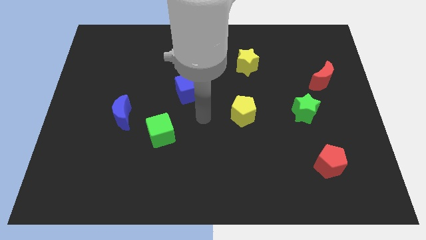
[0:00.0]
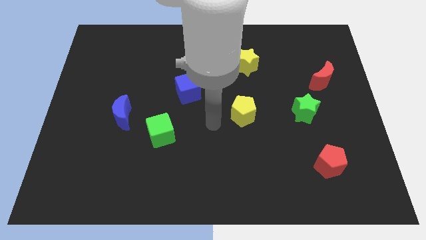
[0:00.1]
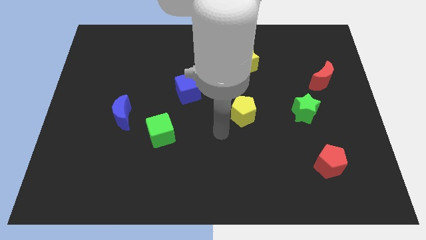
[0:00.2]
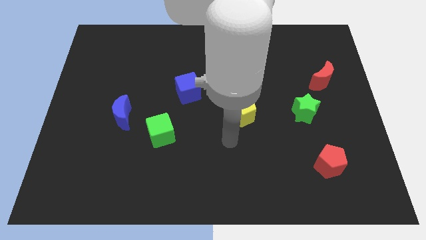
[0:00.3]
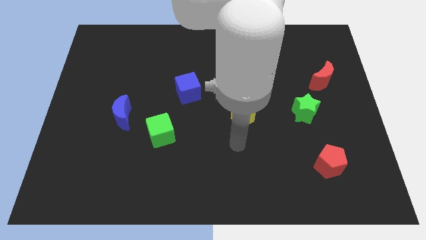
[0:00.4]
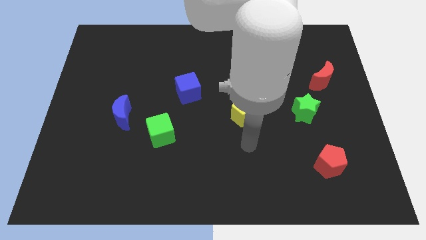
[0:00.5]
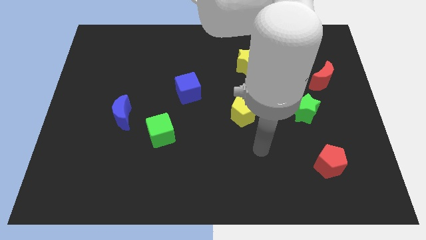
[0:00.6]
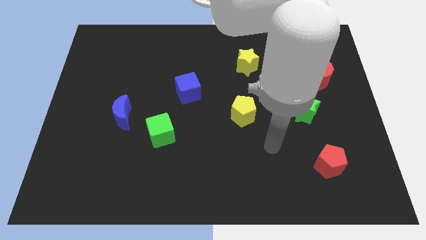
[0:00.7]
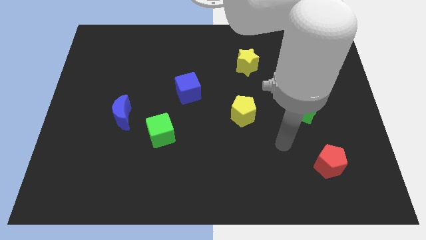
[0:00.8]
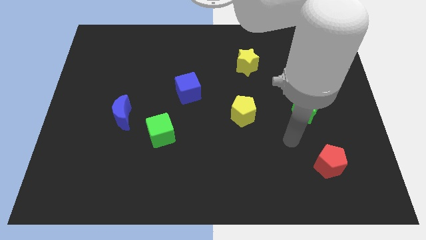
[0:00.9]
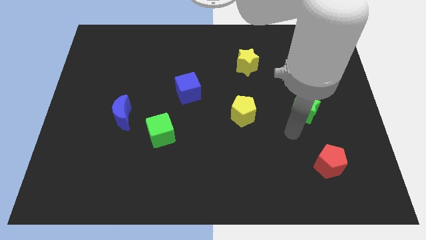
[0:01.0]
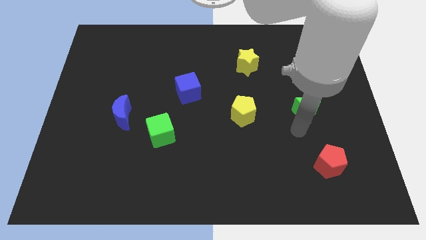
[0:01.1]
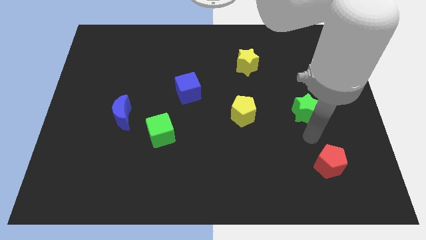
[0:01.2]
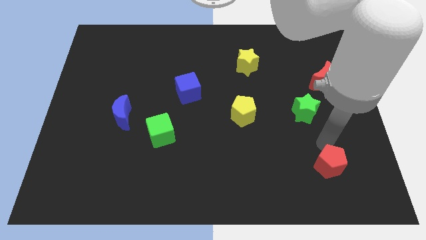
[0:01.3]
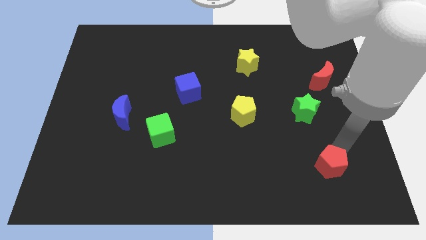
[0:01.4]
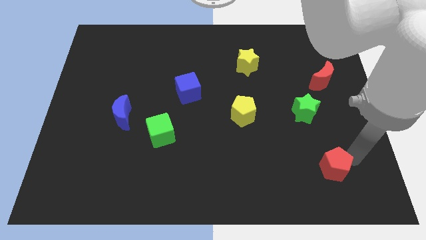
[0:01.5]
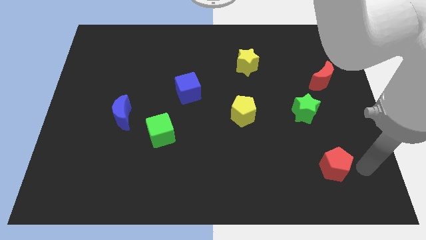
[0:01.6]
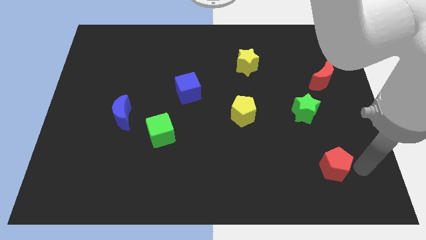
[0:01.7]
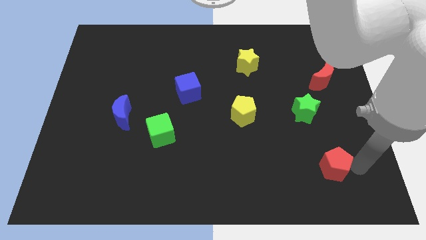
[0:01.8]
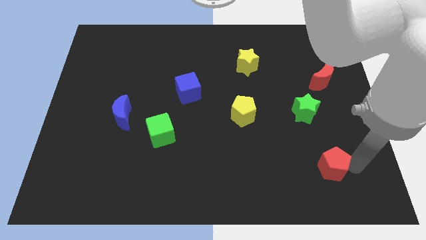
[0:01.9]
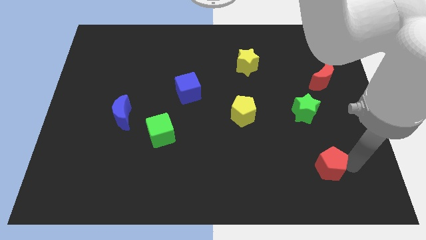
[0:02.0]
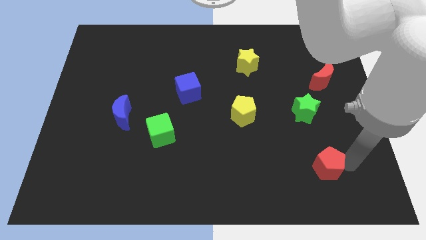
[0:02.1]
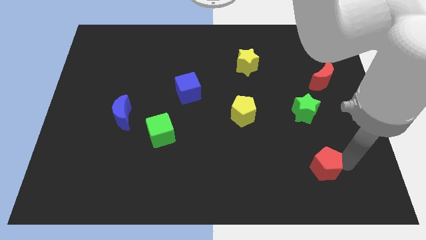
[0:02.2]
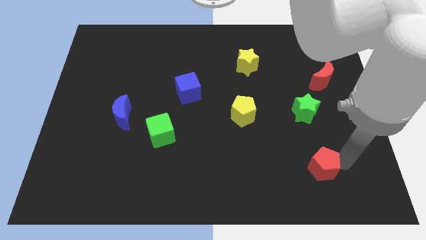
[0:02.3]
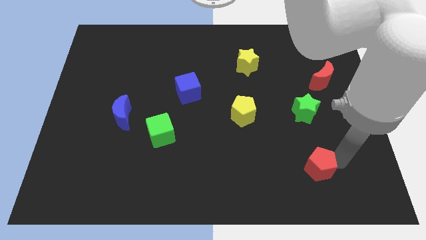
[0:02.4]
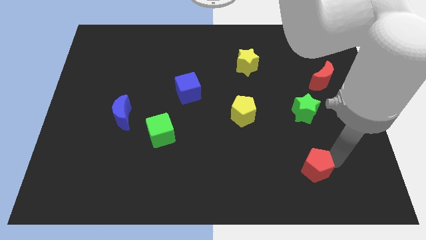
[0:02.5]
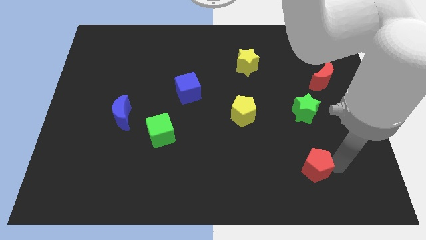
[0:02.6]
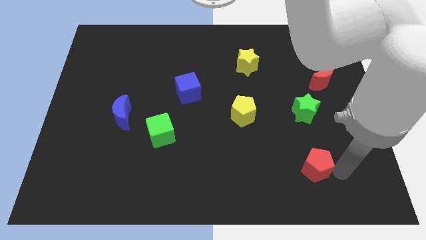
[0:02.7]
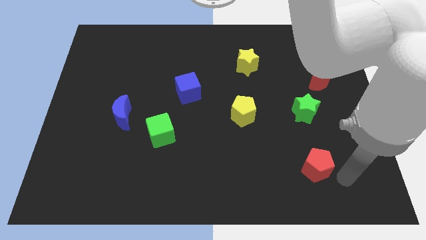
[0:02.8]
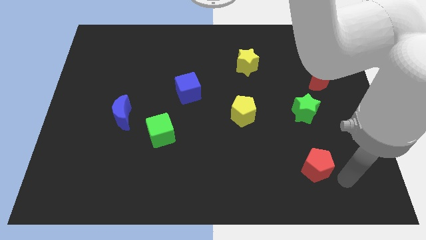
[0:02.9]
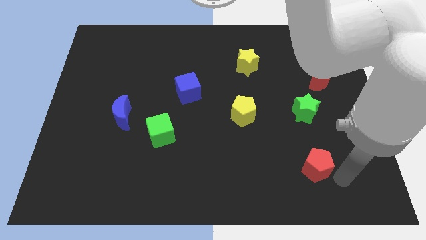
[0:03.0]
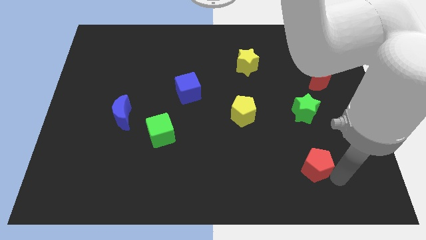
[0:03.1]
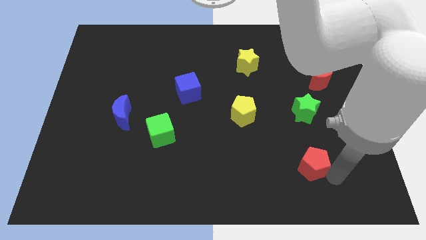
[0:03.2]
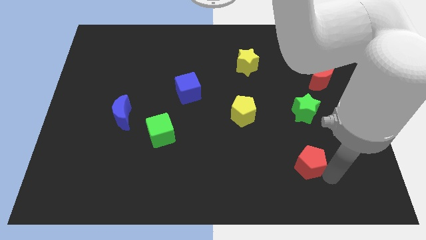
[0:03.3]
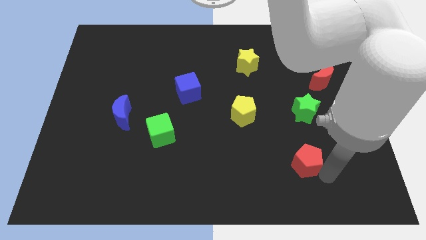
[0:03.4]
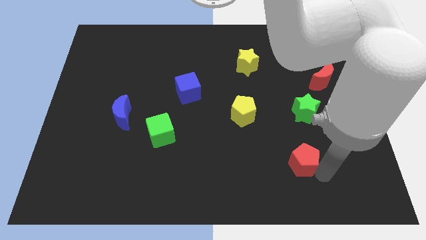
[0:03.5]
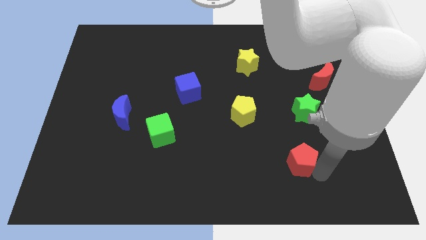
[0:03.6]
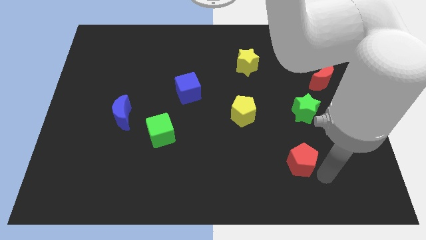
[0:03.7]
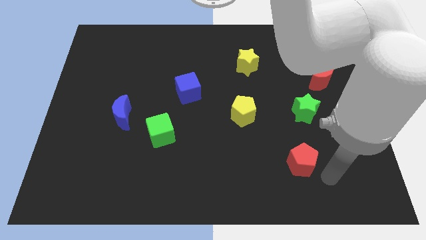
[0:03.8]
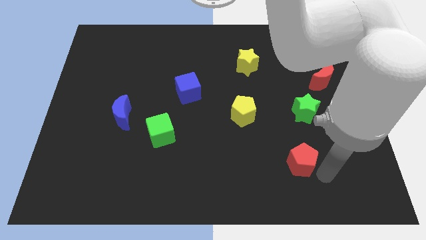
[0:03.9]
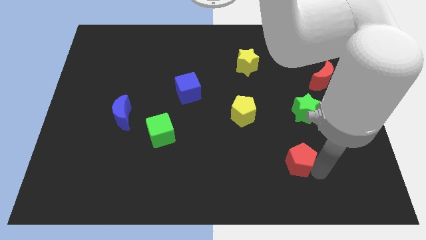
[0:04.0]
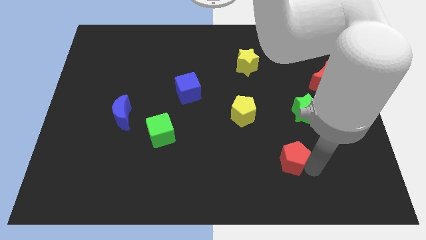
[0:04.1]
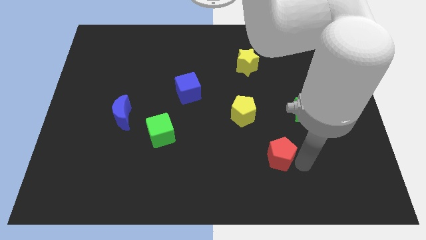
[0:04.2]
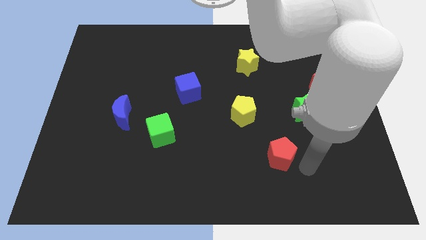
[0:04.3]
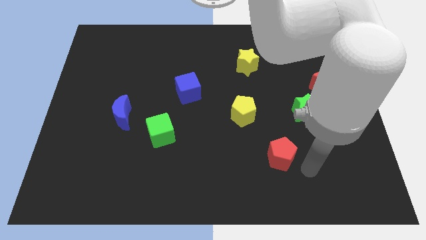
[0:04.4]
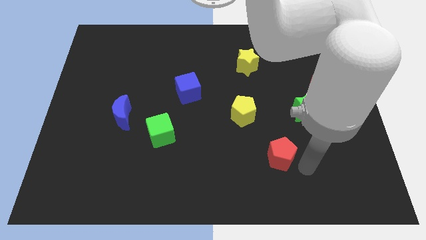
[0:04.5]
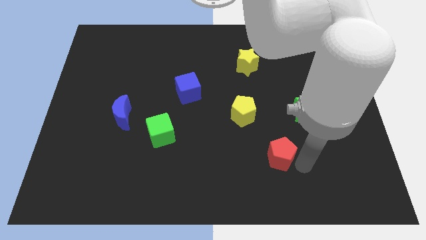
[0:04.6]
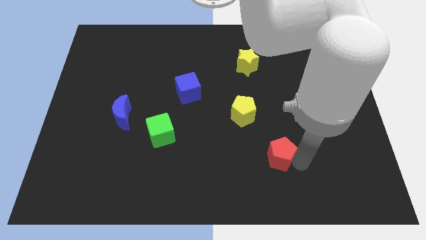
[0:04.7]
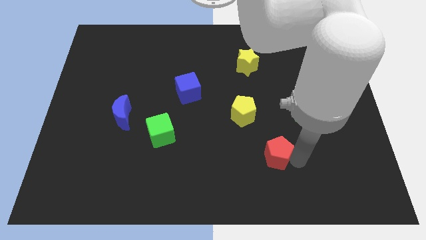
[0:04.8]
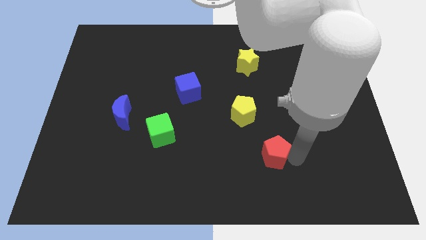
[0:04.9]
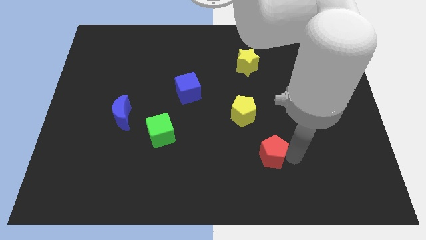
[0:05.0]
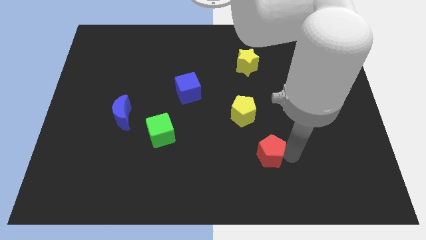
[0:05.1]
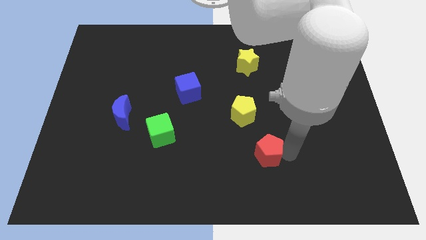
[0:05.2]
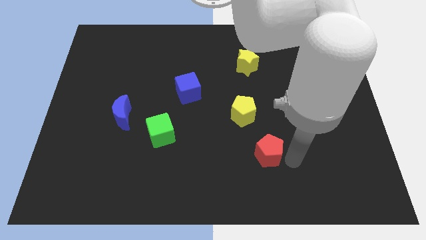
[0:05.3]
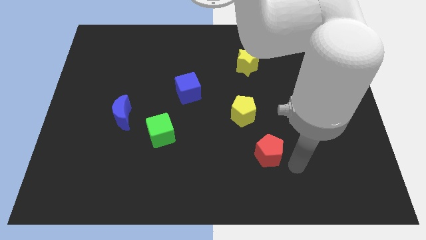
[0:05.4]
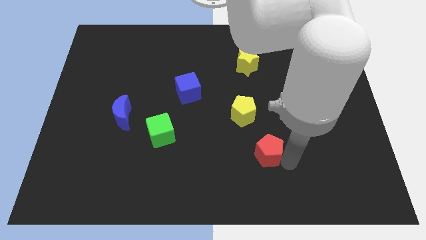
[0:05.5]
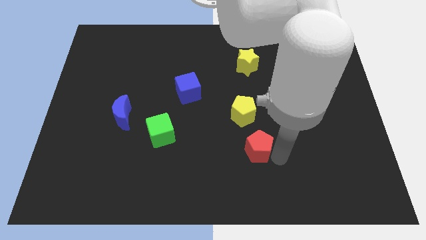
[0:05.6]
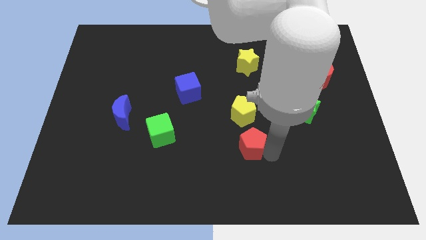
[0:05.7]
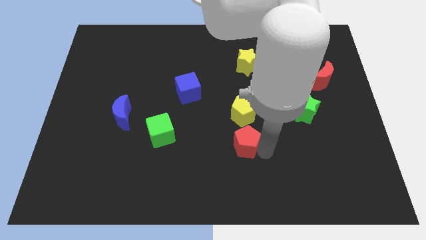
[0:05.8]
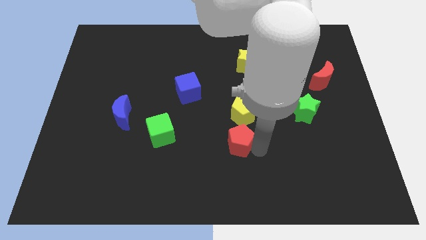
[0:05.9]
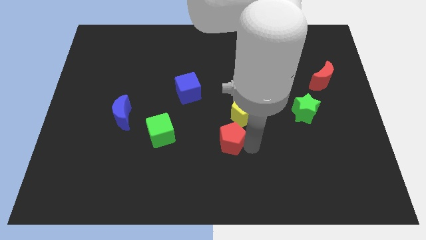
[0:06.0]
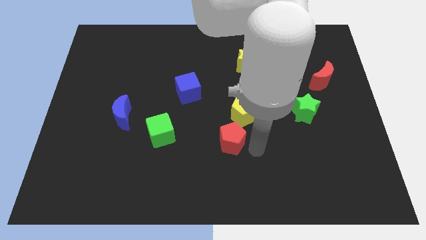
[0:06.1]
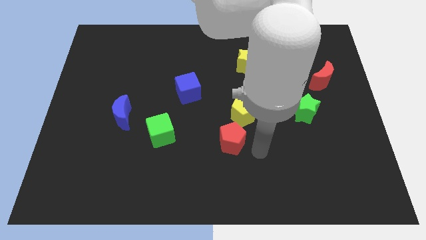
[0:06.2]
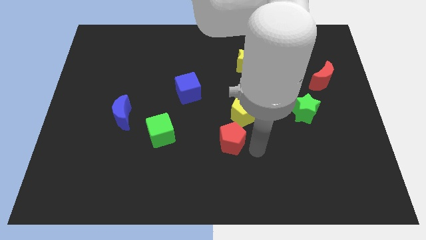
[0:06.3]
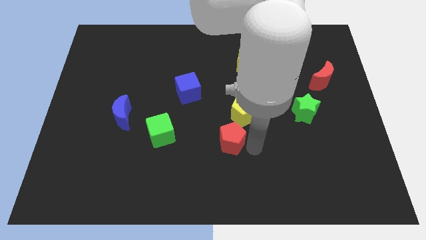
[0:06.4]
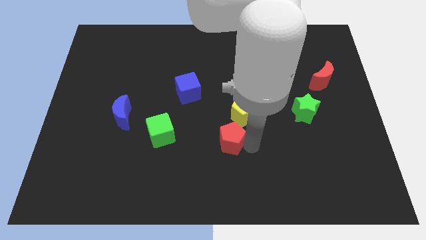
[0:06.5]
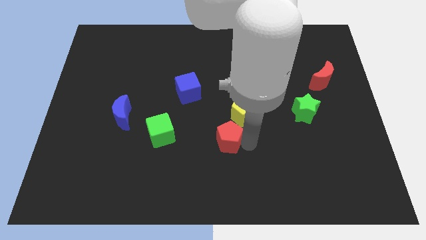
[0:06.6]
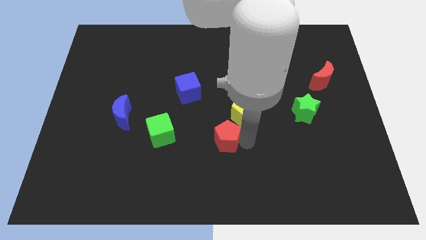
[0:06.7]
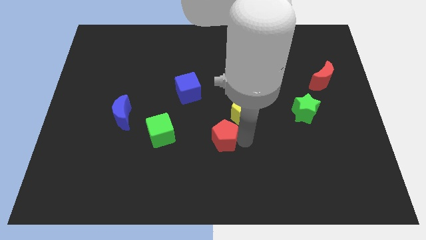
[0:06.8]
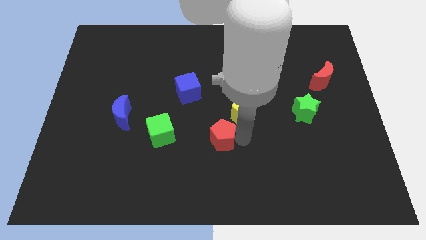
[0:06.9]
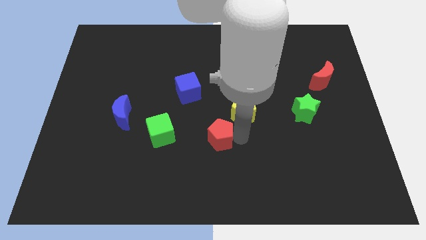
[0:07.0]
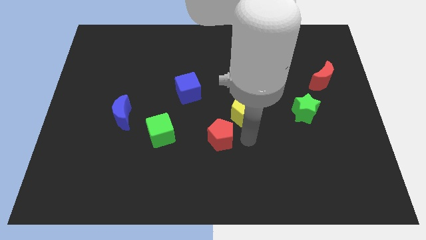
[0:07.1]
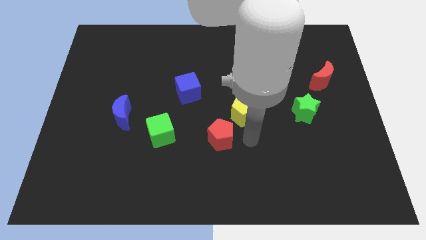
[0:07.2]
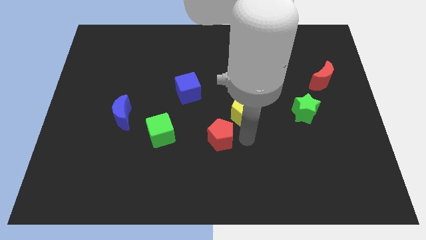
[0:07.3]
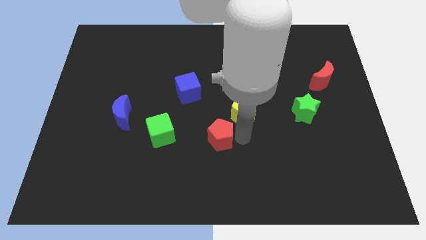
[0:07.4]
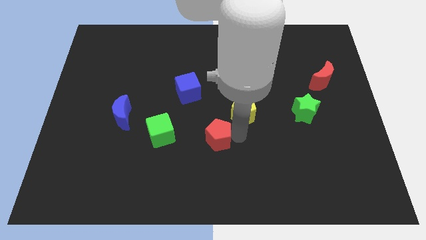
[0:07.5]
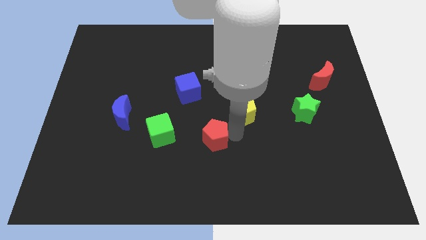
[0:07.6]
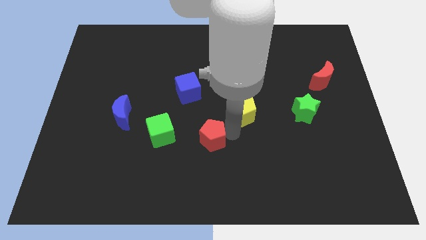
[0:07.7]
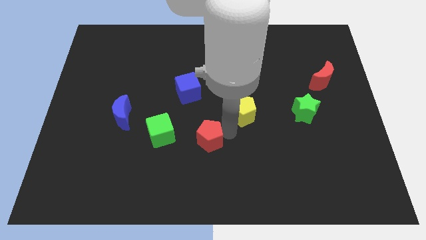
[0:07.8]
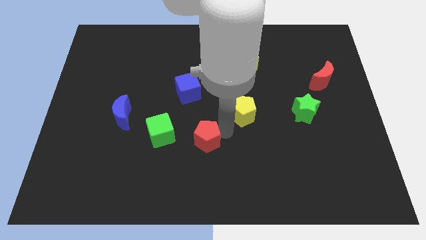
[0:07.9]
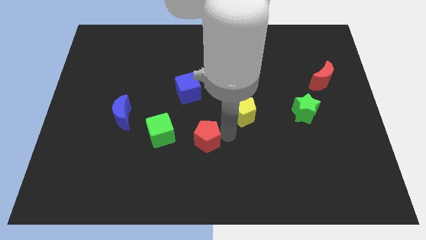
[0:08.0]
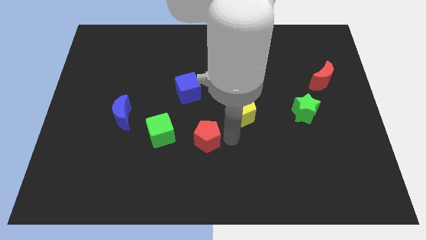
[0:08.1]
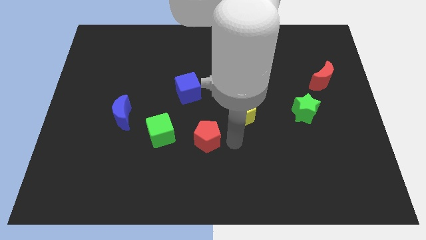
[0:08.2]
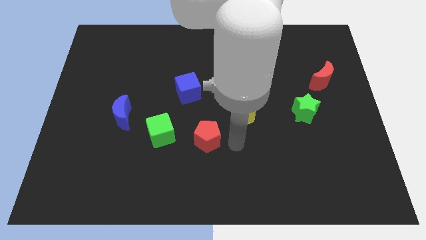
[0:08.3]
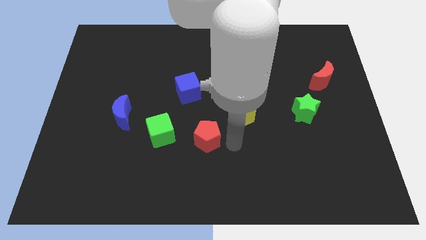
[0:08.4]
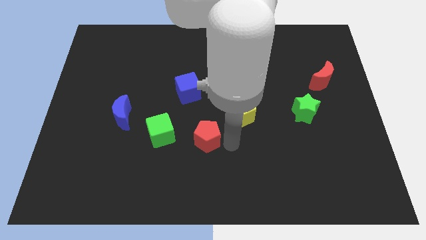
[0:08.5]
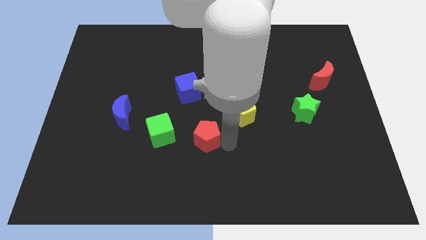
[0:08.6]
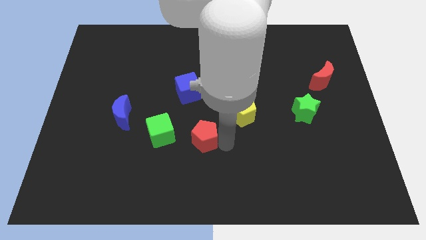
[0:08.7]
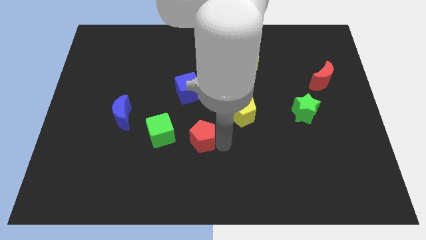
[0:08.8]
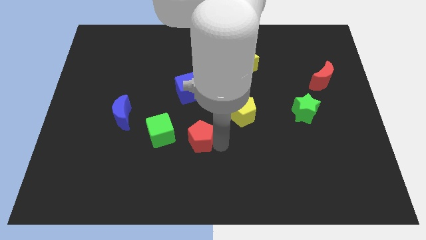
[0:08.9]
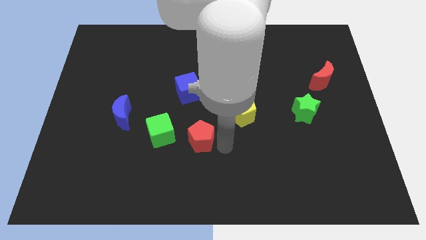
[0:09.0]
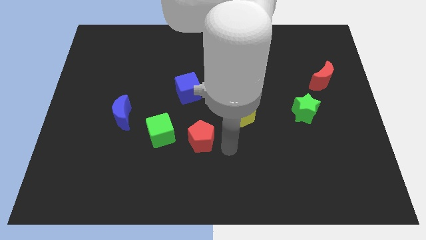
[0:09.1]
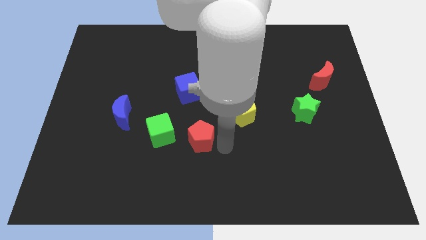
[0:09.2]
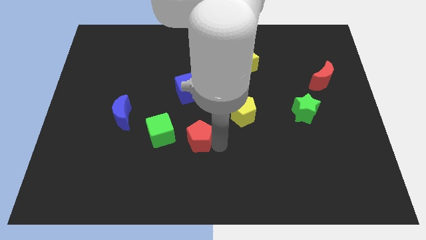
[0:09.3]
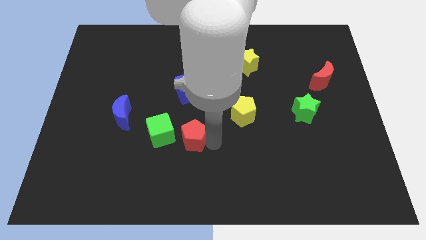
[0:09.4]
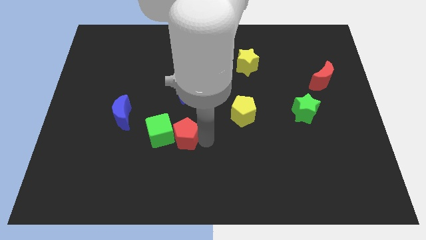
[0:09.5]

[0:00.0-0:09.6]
move the red pentagon next to the green cube
